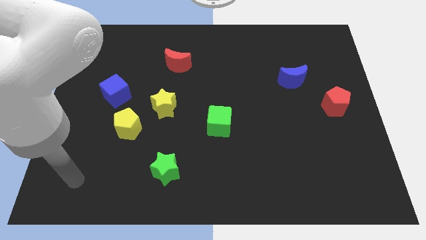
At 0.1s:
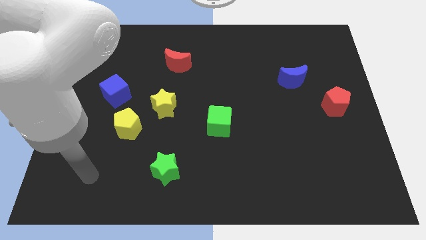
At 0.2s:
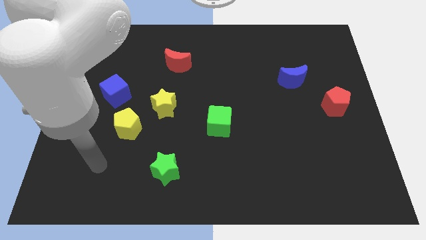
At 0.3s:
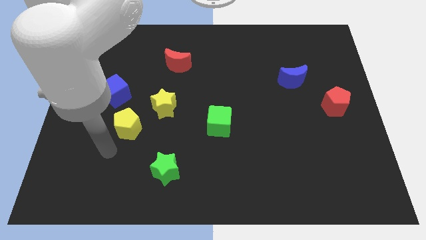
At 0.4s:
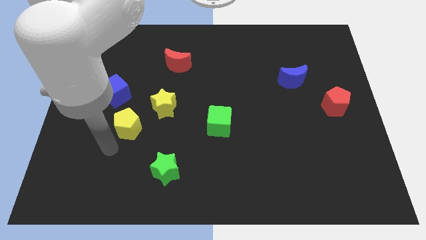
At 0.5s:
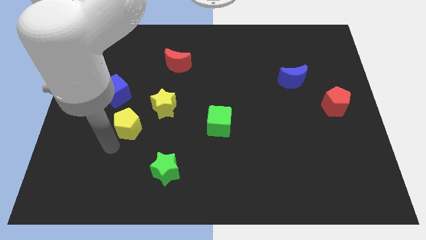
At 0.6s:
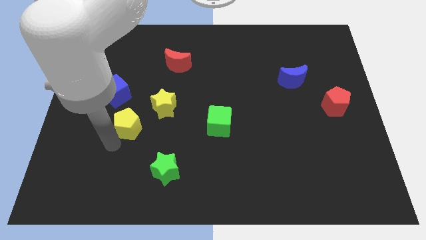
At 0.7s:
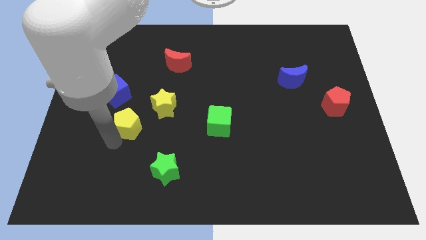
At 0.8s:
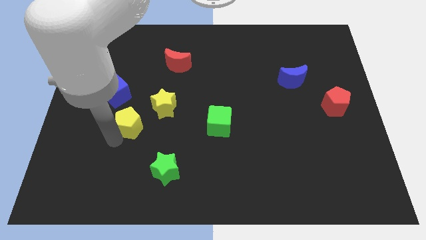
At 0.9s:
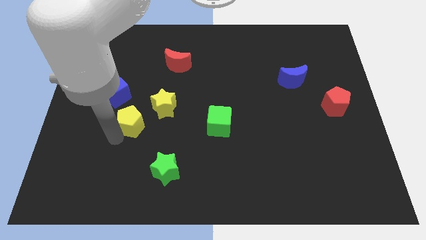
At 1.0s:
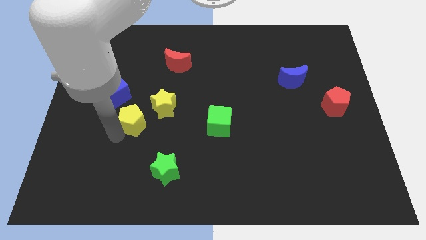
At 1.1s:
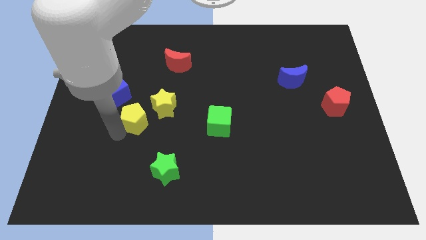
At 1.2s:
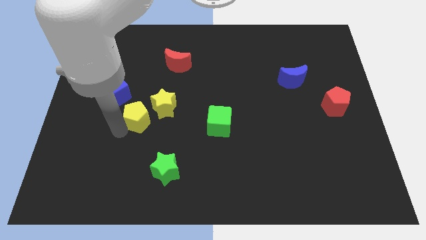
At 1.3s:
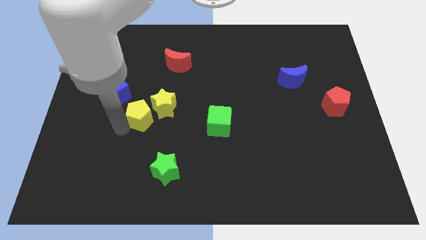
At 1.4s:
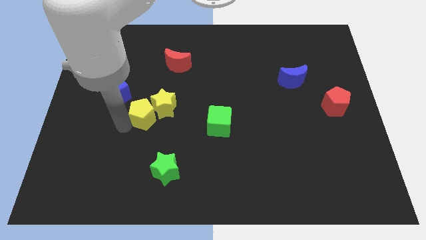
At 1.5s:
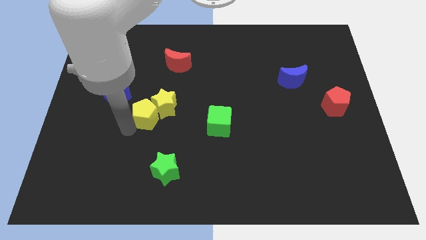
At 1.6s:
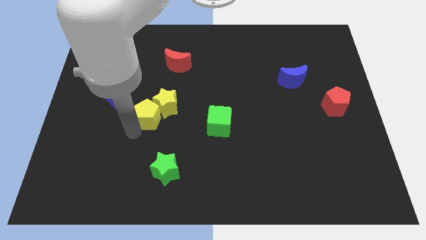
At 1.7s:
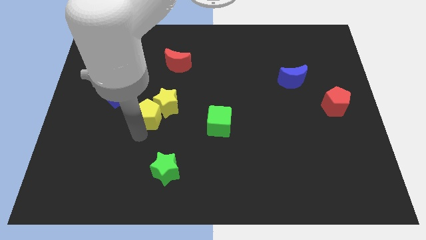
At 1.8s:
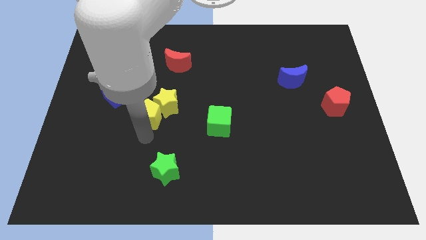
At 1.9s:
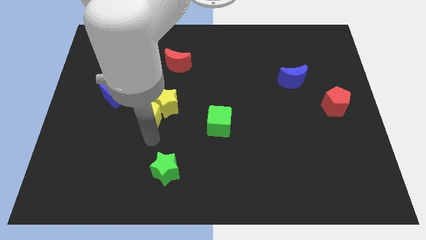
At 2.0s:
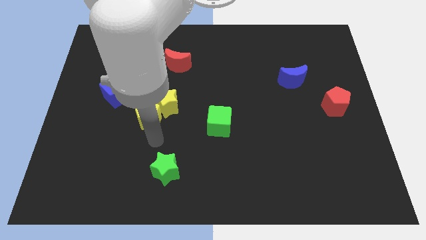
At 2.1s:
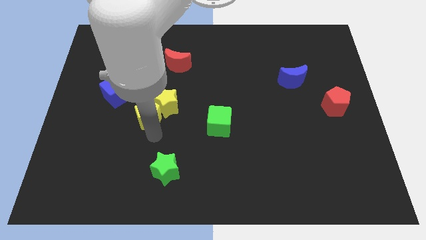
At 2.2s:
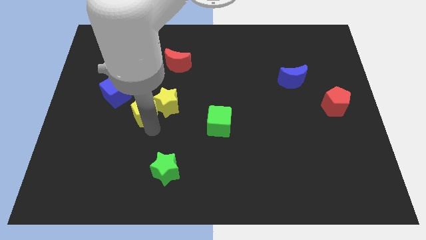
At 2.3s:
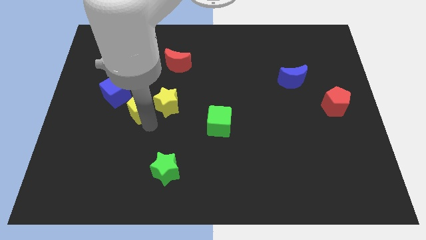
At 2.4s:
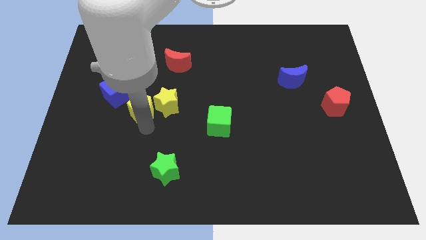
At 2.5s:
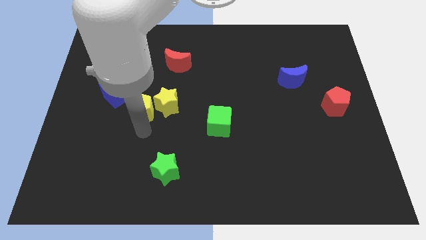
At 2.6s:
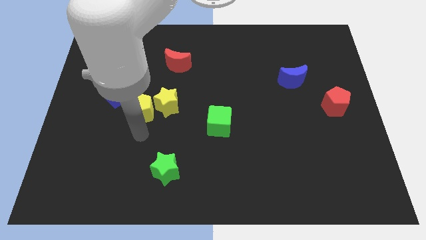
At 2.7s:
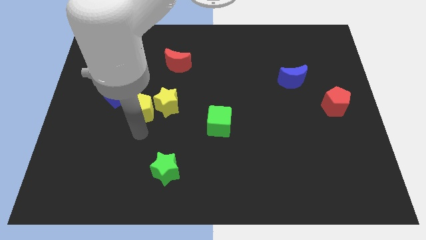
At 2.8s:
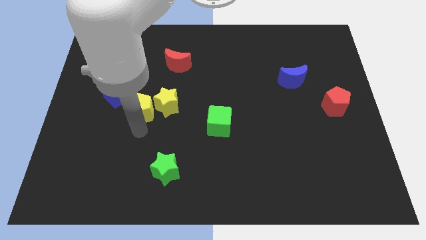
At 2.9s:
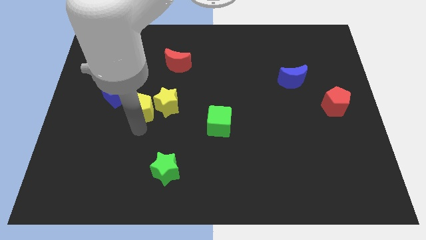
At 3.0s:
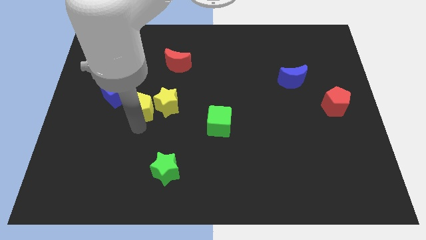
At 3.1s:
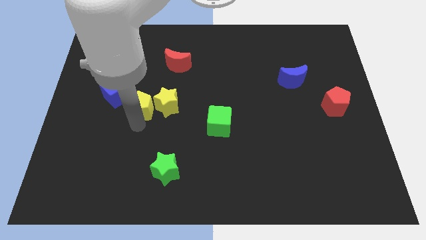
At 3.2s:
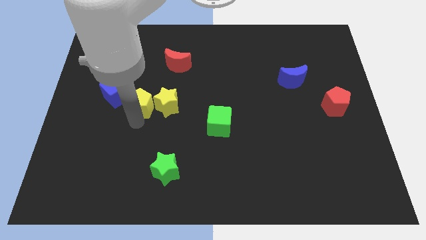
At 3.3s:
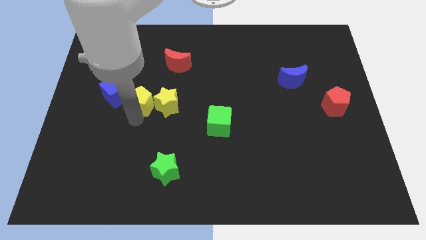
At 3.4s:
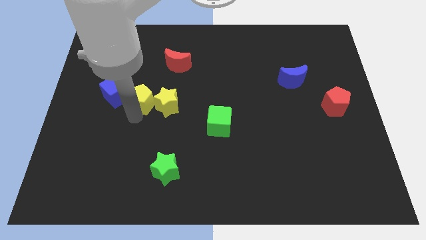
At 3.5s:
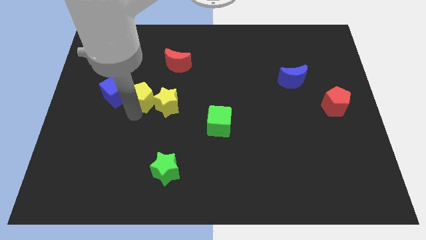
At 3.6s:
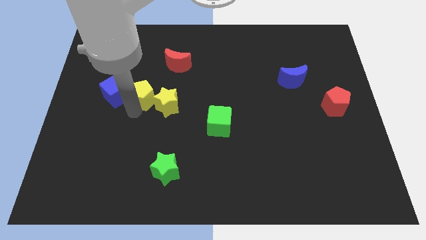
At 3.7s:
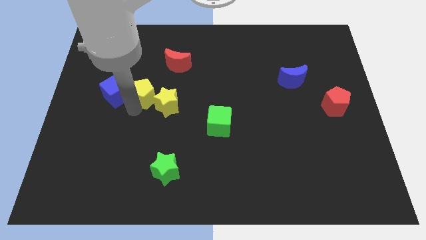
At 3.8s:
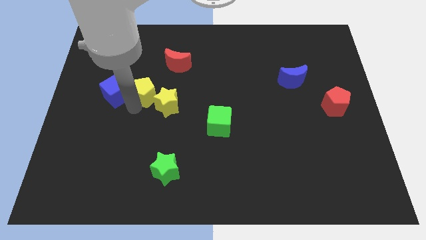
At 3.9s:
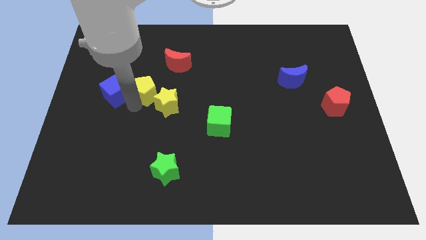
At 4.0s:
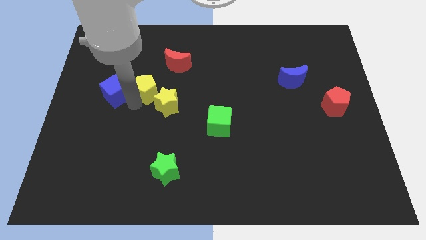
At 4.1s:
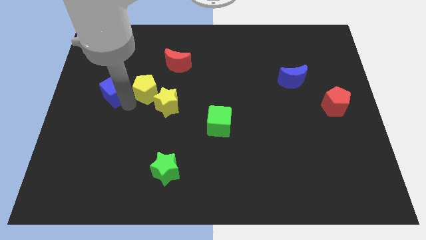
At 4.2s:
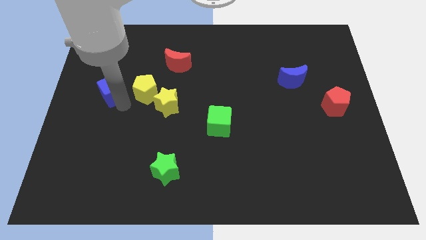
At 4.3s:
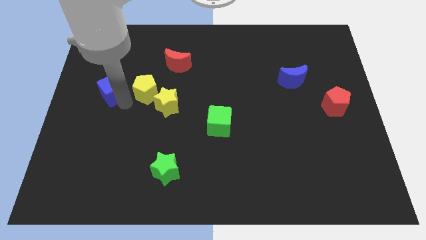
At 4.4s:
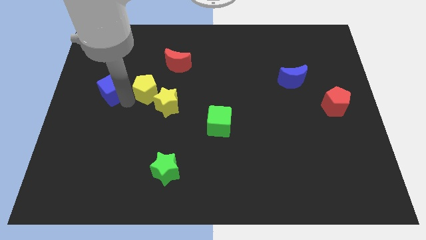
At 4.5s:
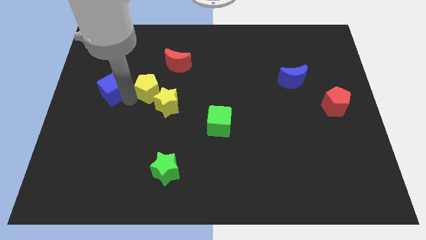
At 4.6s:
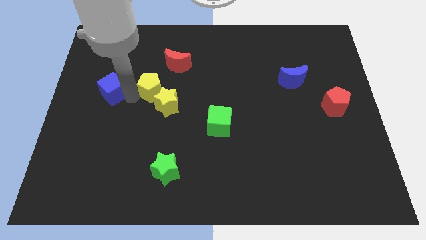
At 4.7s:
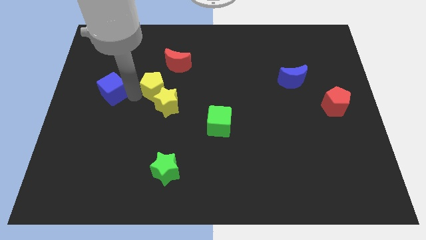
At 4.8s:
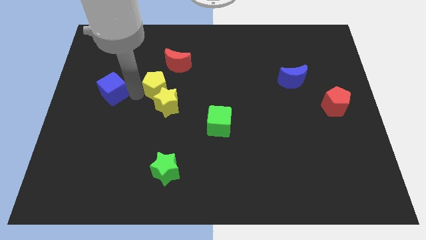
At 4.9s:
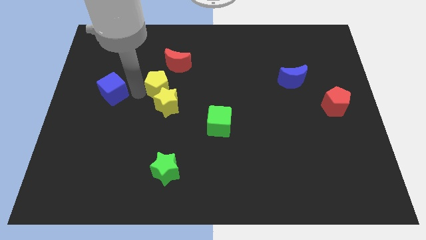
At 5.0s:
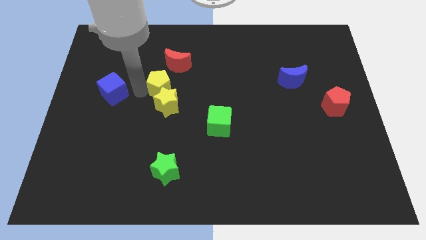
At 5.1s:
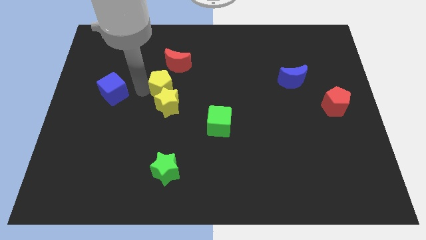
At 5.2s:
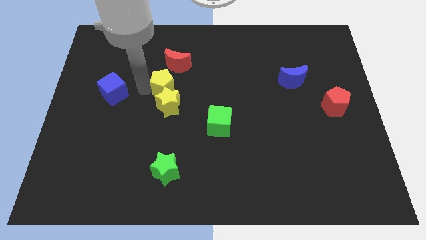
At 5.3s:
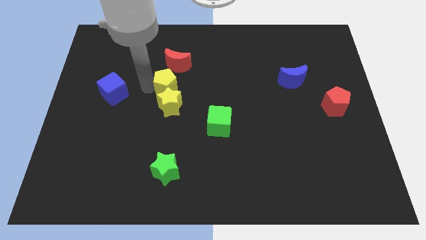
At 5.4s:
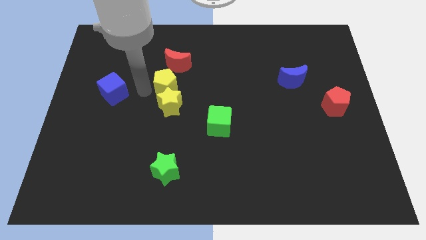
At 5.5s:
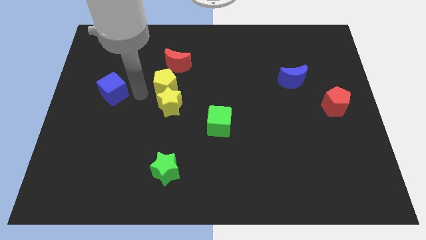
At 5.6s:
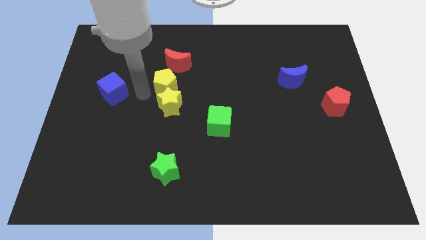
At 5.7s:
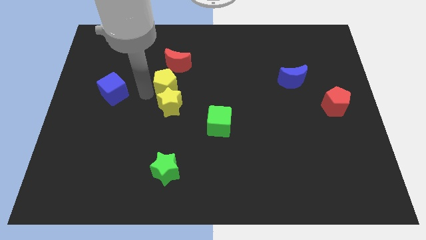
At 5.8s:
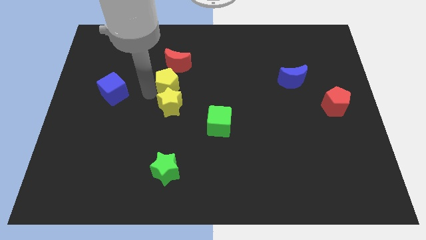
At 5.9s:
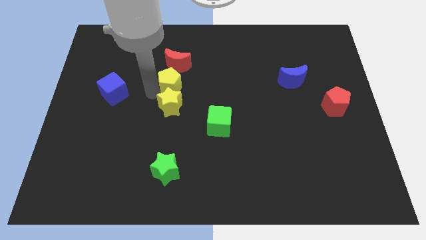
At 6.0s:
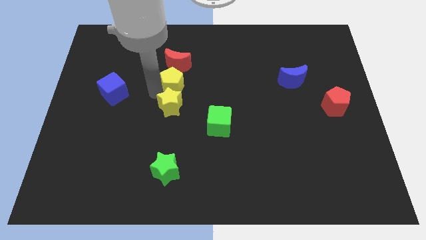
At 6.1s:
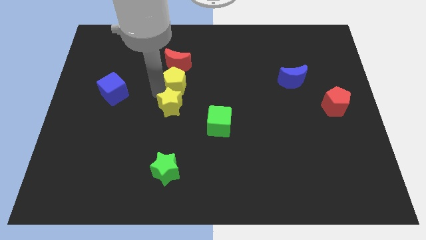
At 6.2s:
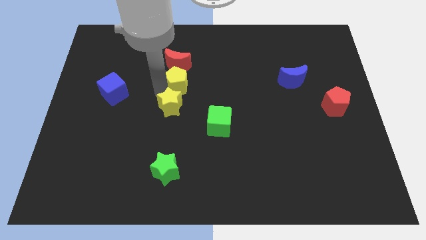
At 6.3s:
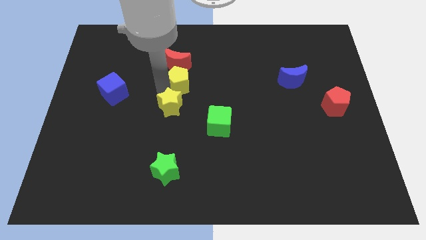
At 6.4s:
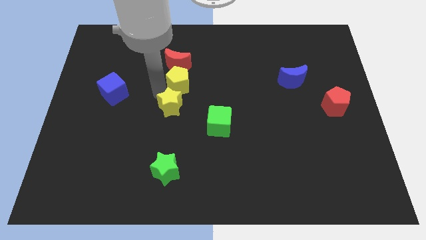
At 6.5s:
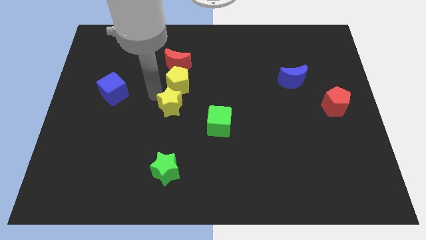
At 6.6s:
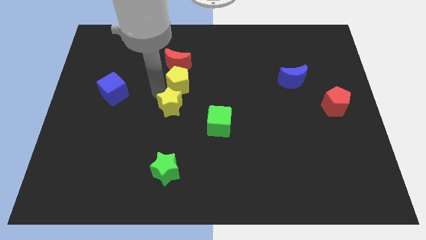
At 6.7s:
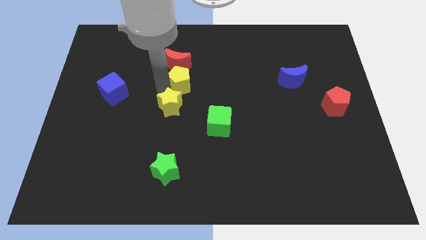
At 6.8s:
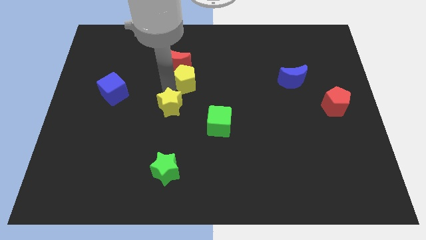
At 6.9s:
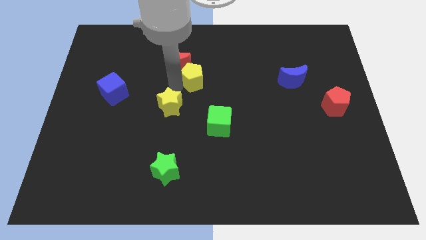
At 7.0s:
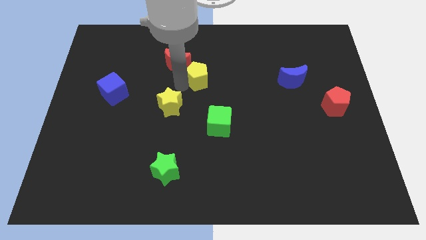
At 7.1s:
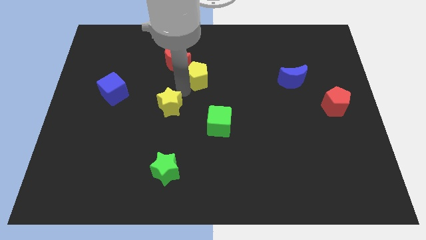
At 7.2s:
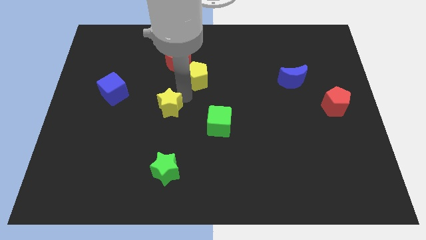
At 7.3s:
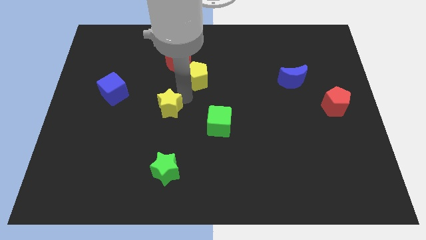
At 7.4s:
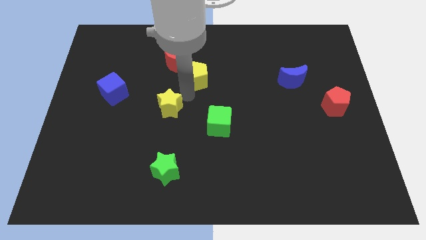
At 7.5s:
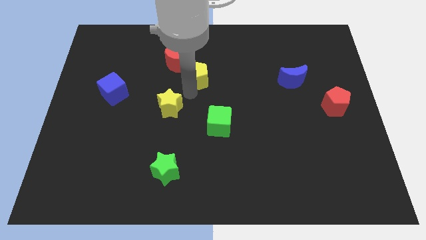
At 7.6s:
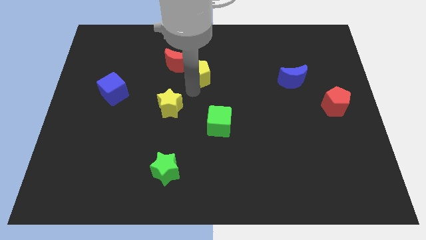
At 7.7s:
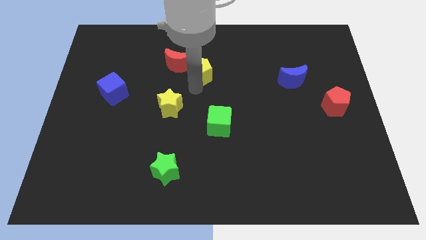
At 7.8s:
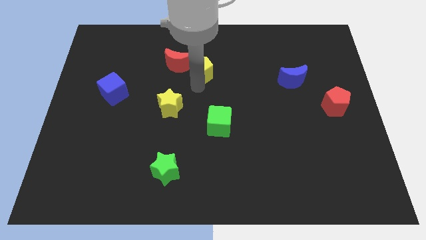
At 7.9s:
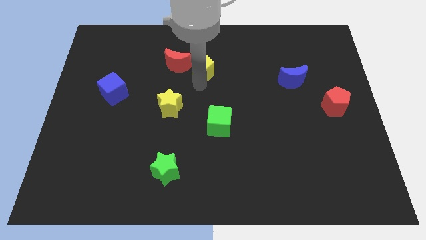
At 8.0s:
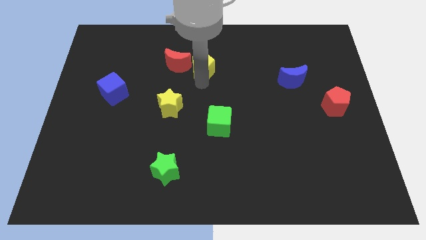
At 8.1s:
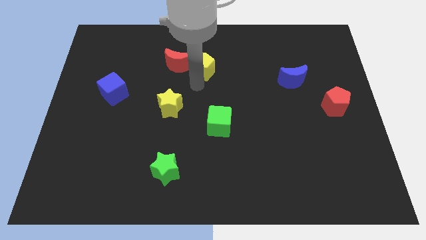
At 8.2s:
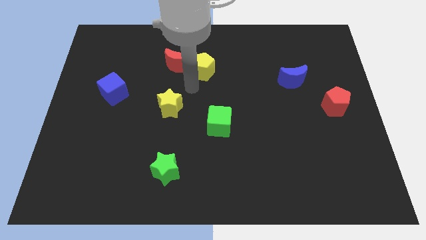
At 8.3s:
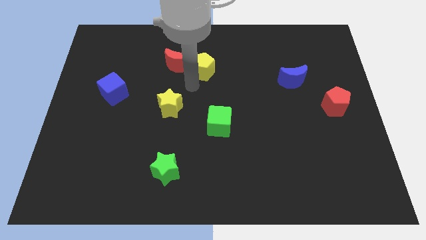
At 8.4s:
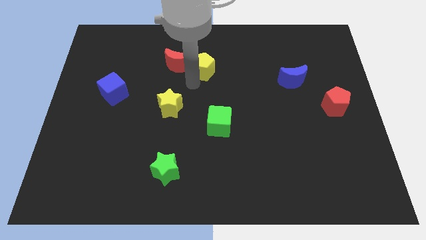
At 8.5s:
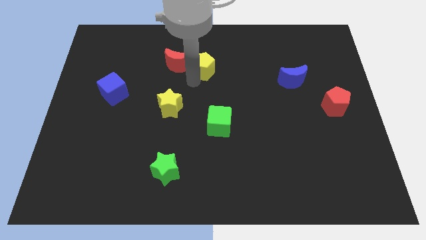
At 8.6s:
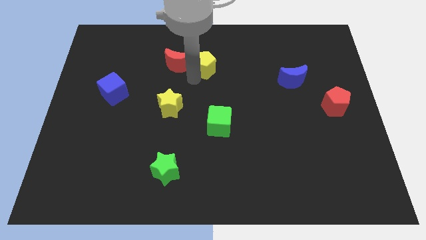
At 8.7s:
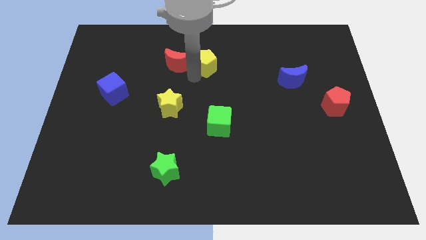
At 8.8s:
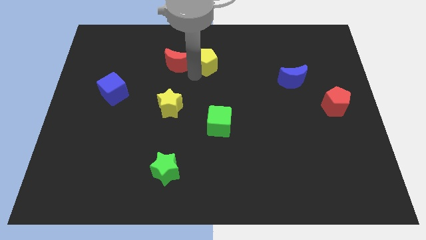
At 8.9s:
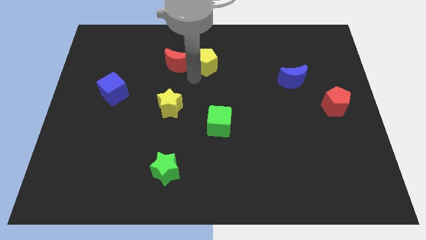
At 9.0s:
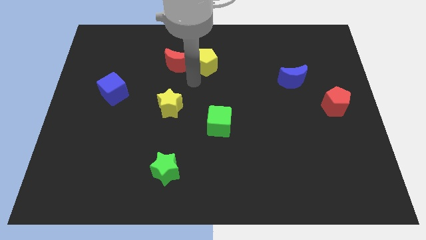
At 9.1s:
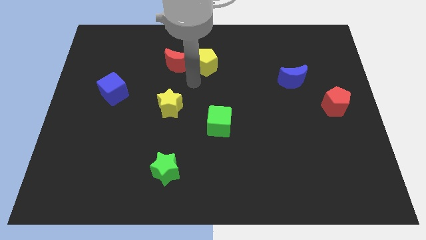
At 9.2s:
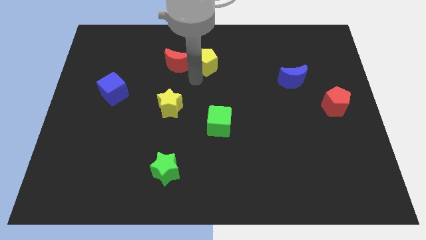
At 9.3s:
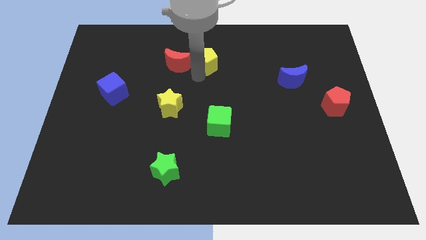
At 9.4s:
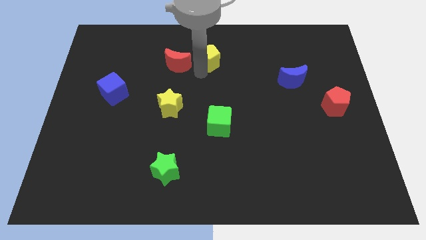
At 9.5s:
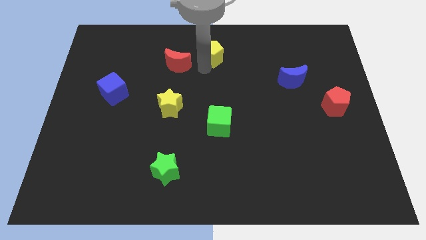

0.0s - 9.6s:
push the yellow pentagon to the top
